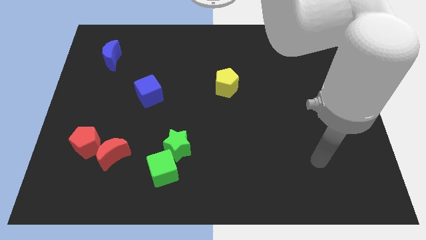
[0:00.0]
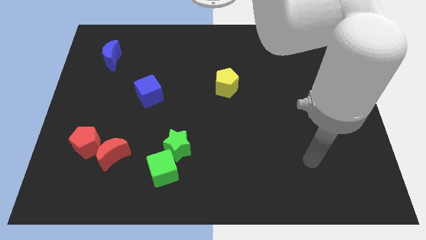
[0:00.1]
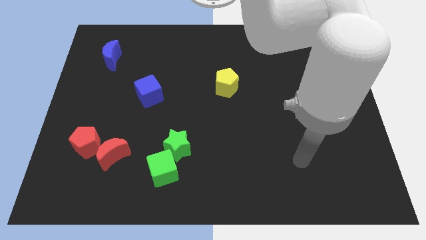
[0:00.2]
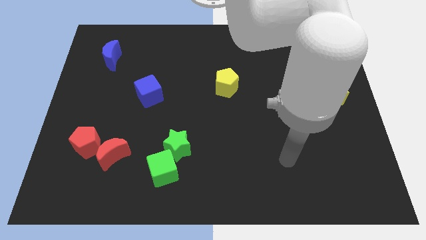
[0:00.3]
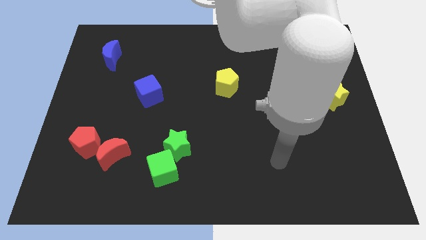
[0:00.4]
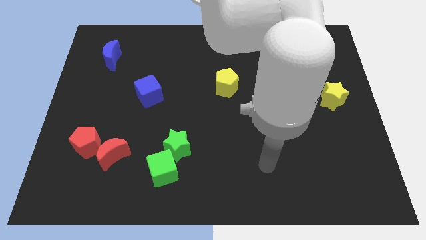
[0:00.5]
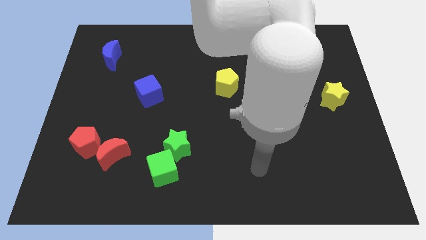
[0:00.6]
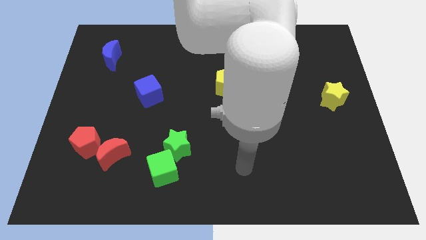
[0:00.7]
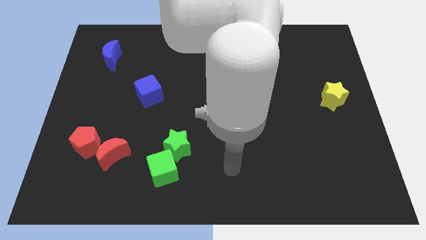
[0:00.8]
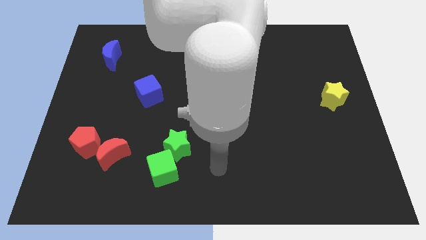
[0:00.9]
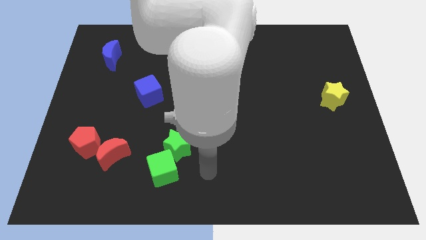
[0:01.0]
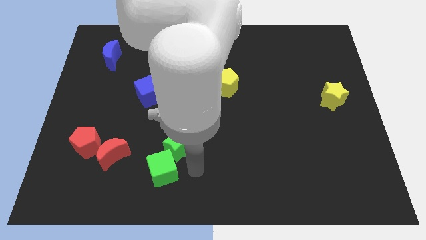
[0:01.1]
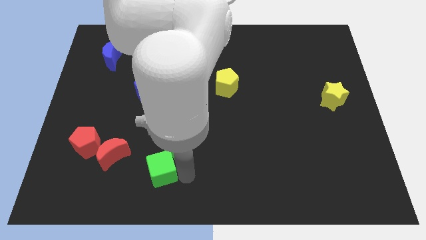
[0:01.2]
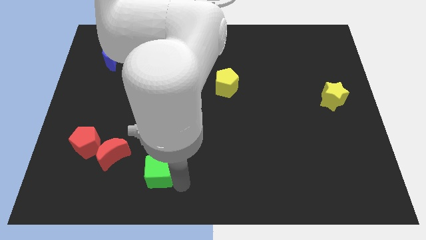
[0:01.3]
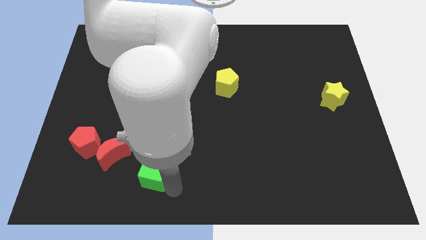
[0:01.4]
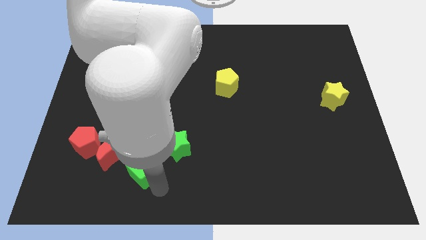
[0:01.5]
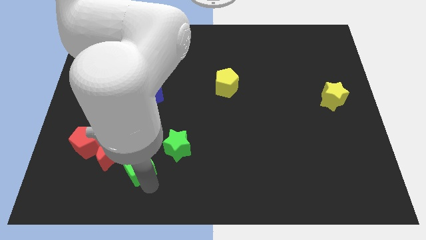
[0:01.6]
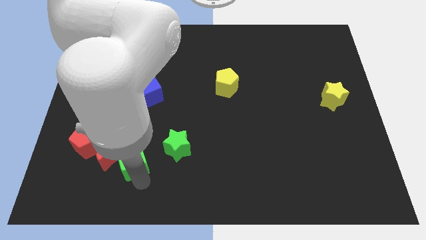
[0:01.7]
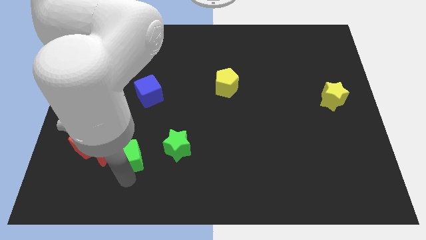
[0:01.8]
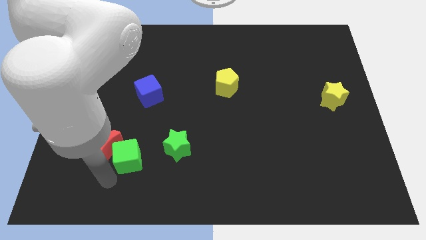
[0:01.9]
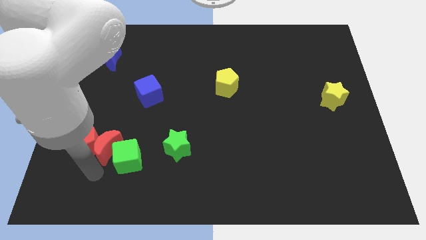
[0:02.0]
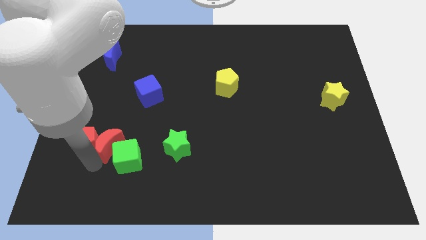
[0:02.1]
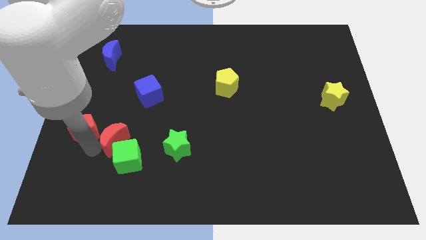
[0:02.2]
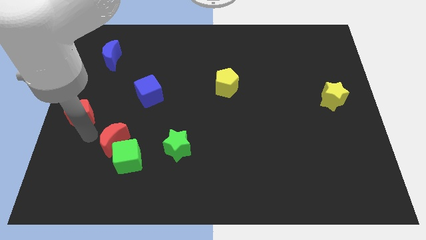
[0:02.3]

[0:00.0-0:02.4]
move the red moon away from the red pentagon

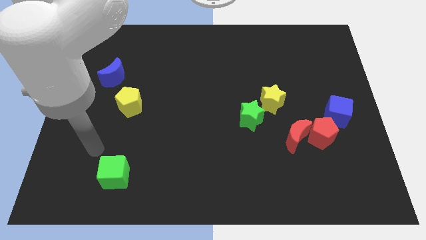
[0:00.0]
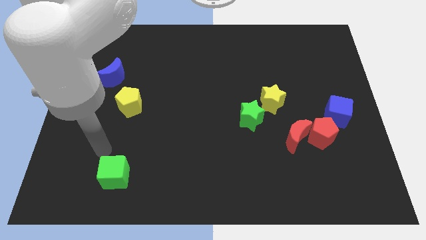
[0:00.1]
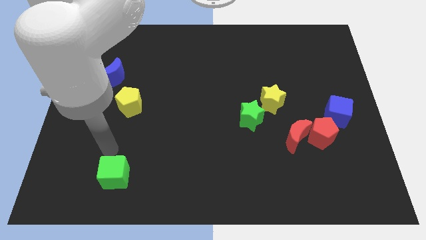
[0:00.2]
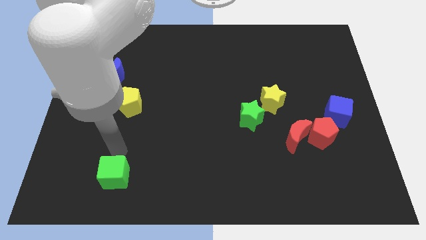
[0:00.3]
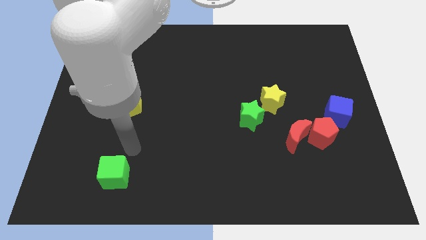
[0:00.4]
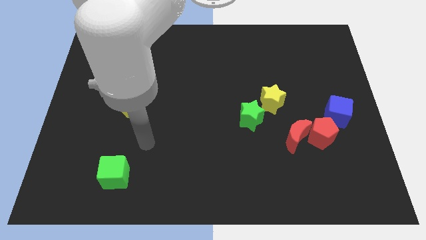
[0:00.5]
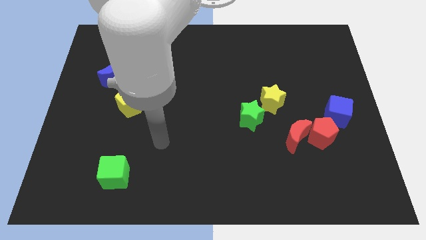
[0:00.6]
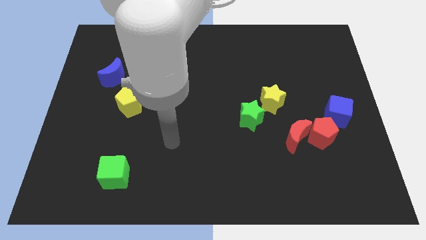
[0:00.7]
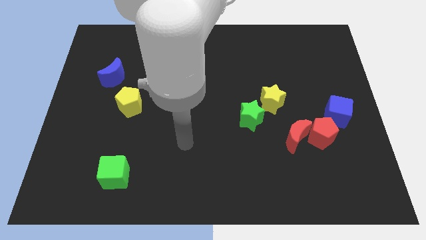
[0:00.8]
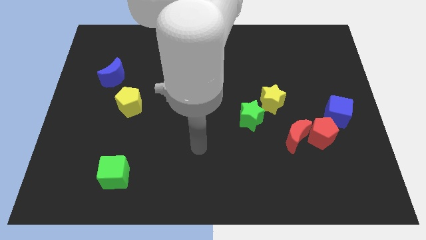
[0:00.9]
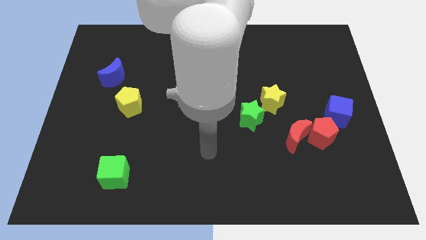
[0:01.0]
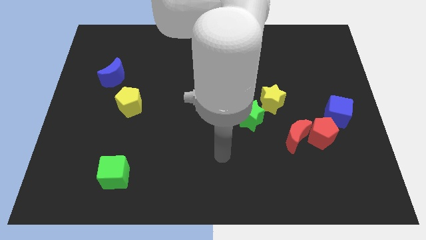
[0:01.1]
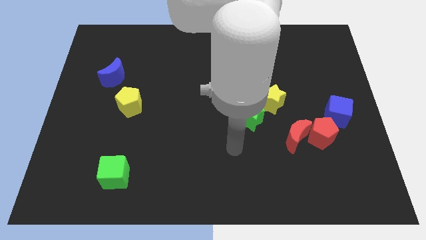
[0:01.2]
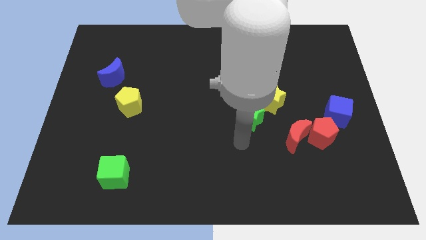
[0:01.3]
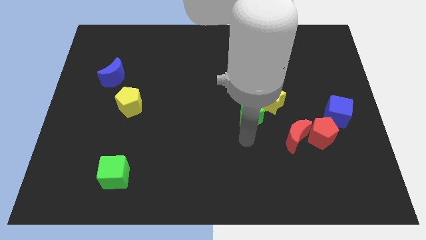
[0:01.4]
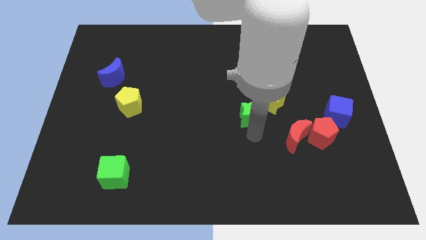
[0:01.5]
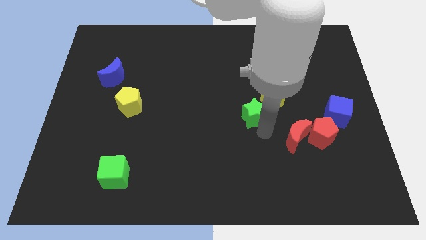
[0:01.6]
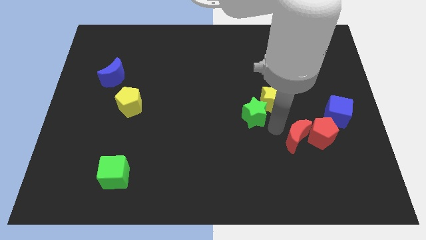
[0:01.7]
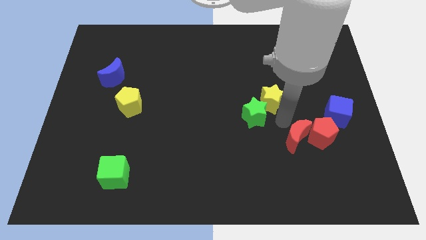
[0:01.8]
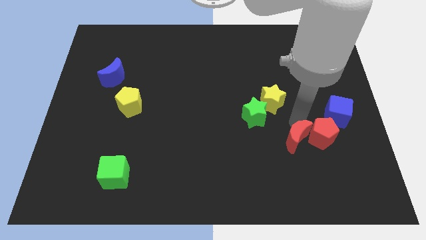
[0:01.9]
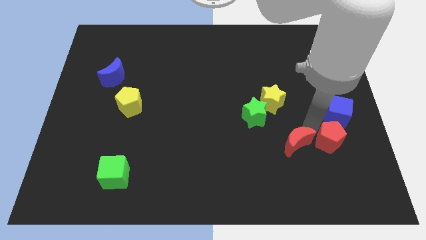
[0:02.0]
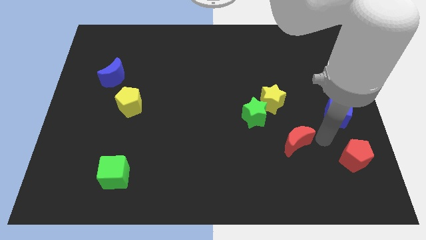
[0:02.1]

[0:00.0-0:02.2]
pull the red moon apart from the red pentagon

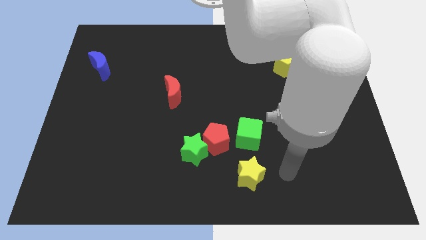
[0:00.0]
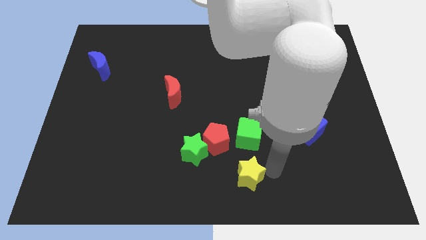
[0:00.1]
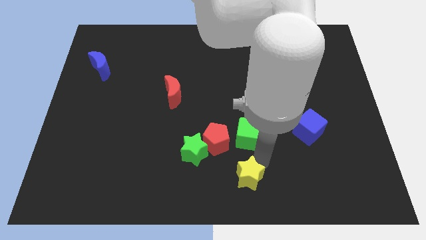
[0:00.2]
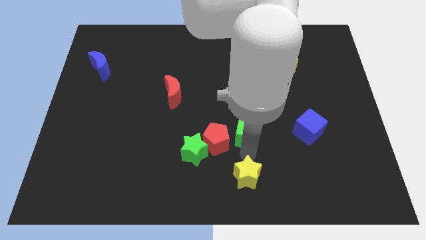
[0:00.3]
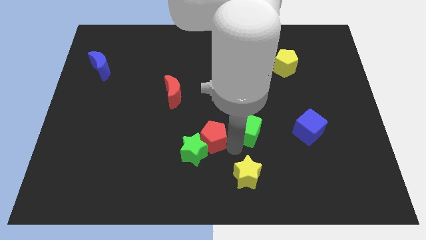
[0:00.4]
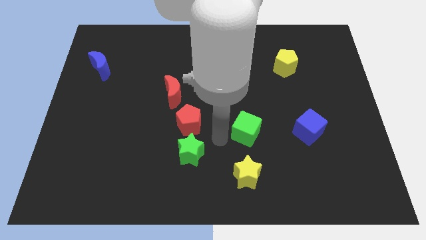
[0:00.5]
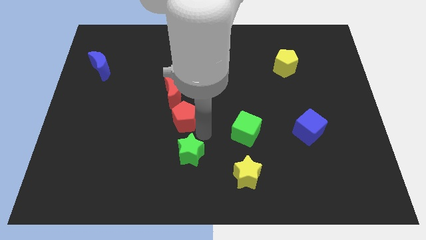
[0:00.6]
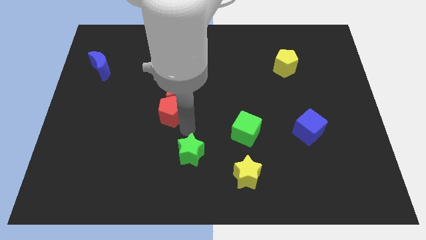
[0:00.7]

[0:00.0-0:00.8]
move the green star away from the red pentagon

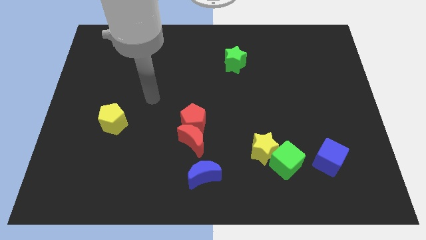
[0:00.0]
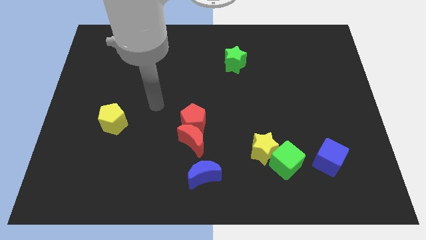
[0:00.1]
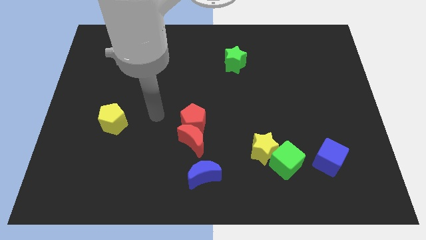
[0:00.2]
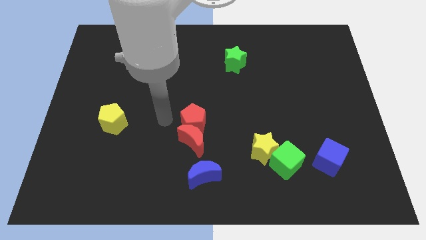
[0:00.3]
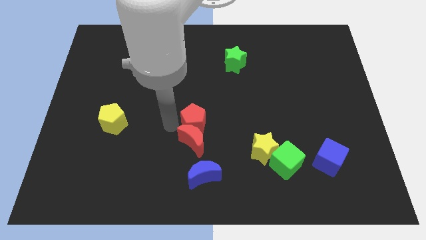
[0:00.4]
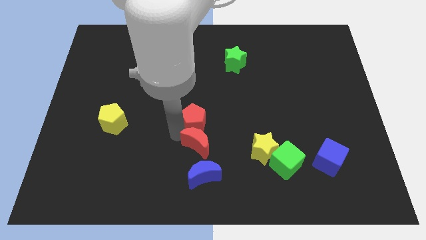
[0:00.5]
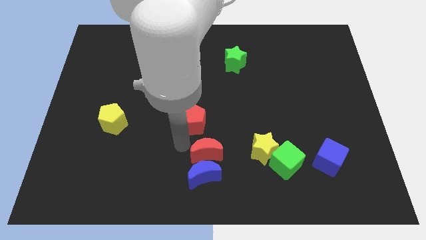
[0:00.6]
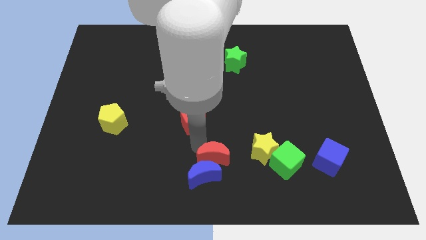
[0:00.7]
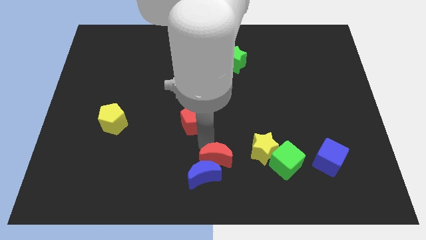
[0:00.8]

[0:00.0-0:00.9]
pull the red pentagon apart from the red moon

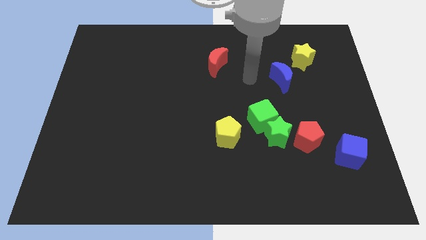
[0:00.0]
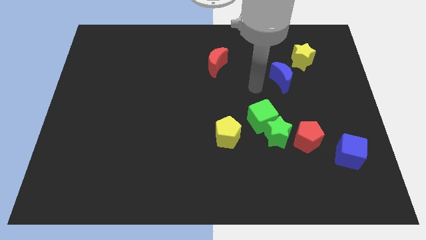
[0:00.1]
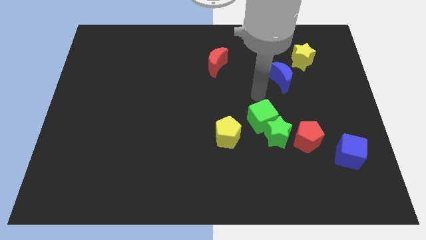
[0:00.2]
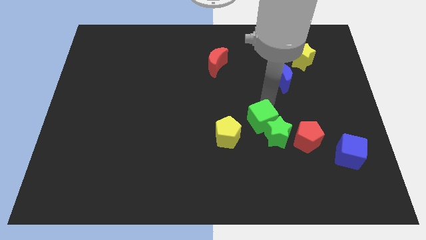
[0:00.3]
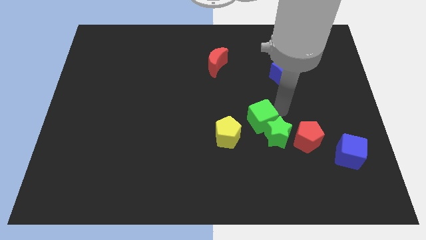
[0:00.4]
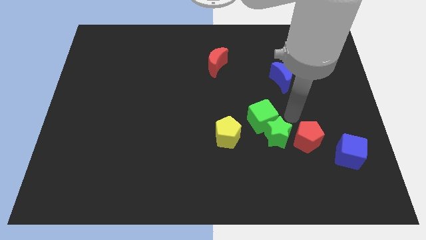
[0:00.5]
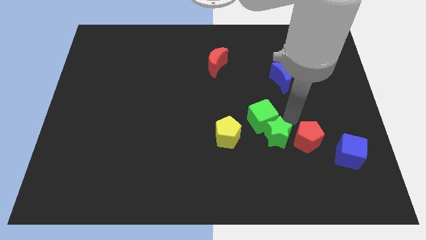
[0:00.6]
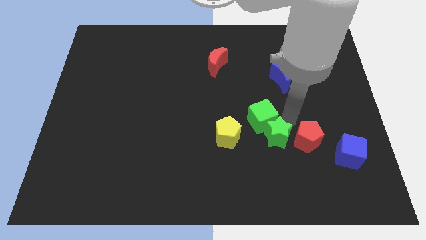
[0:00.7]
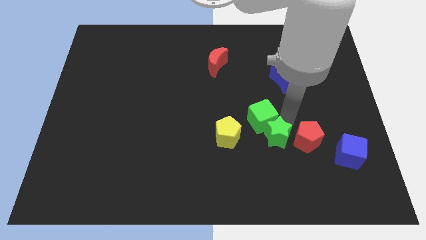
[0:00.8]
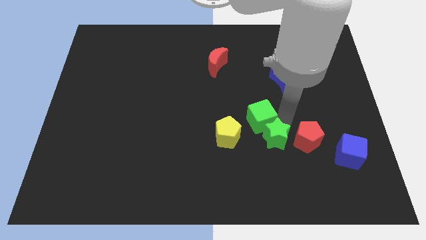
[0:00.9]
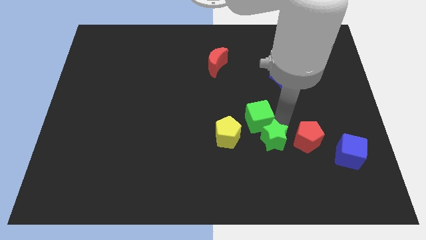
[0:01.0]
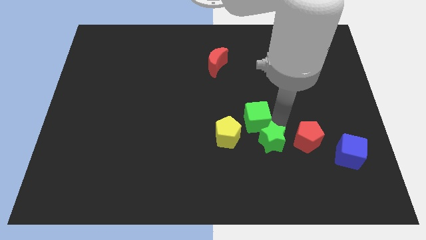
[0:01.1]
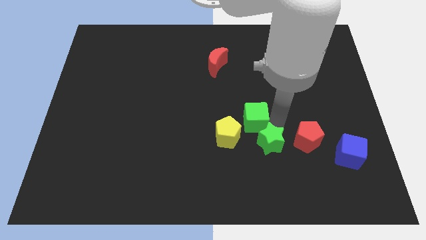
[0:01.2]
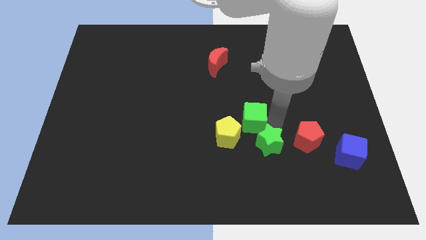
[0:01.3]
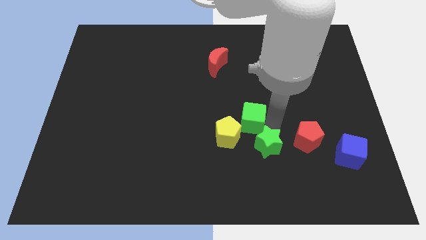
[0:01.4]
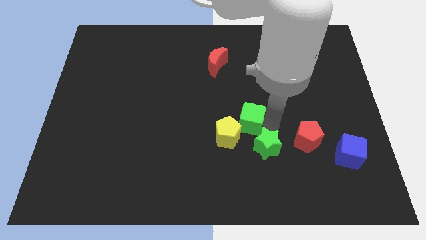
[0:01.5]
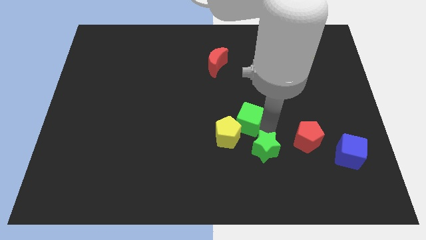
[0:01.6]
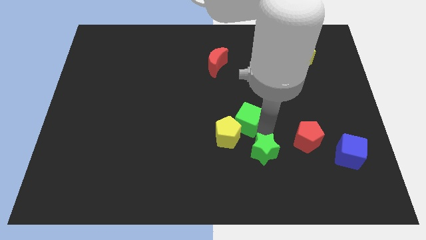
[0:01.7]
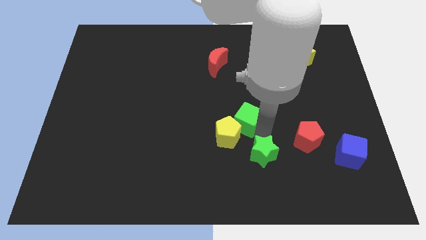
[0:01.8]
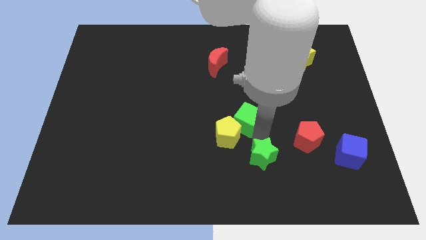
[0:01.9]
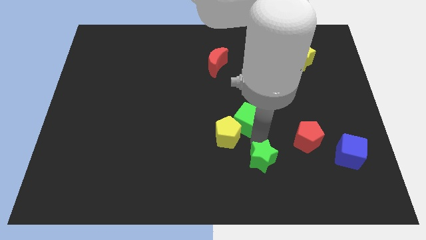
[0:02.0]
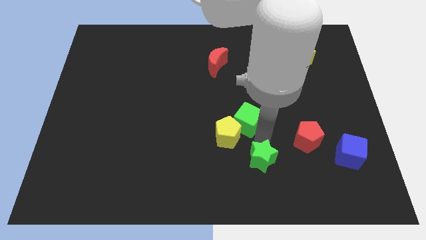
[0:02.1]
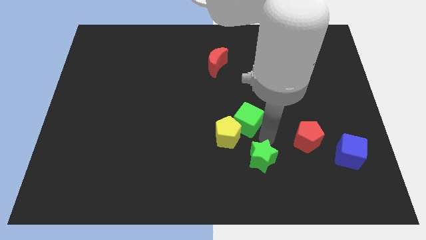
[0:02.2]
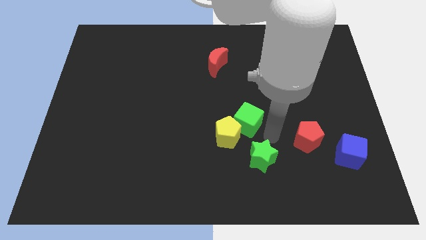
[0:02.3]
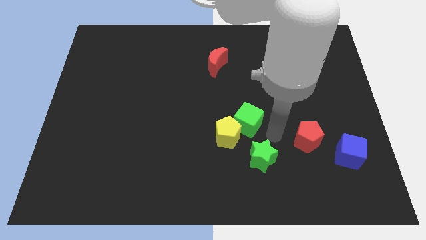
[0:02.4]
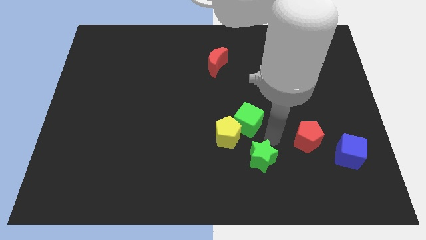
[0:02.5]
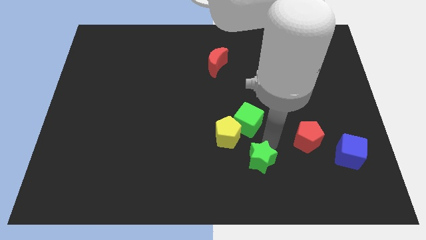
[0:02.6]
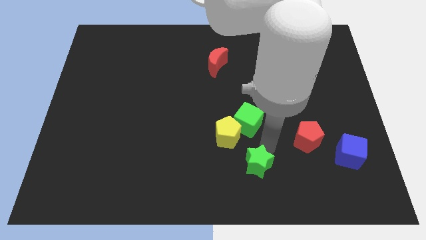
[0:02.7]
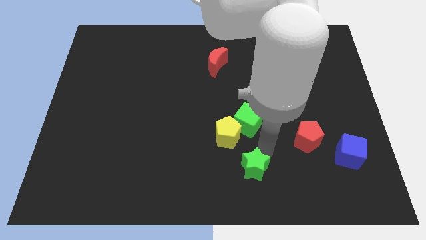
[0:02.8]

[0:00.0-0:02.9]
pull the green star apart from the green cube and red pentagon
